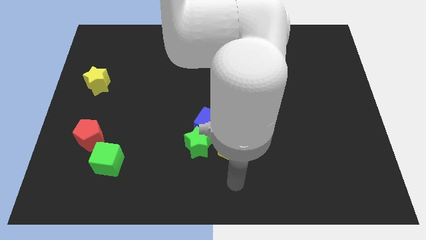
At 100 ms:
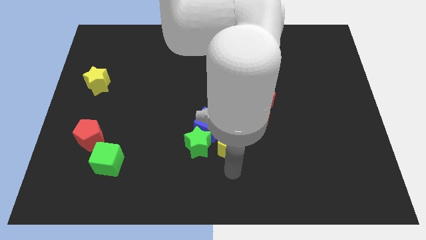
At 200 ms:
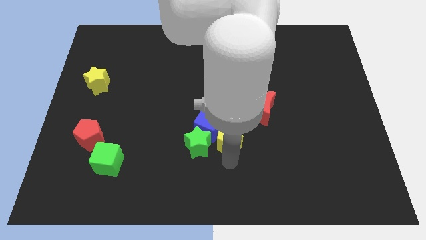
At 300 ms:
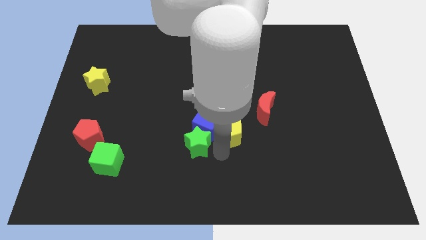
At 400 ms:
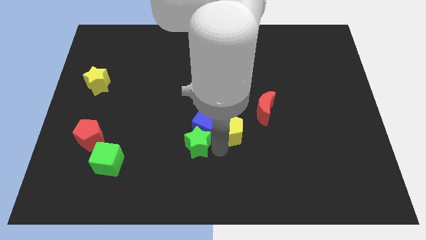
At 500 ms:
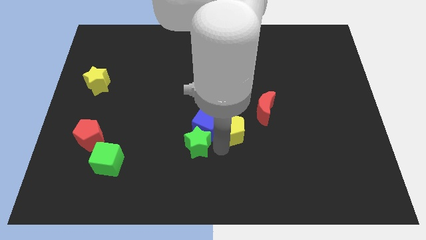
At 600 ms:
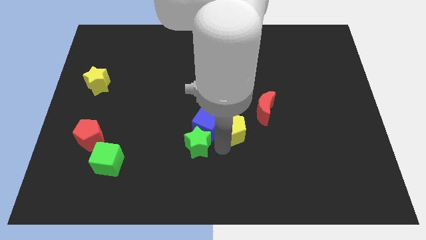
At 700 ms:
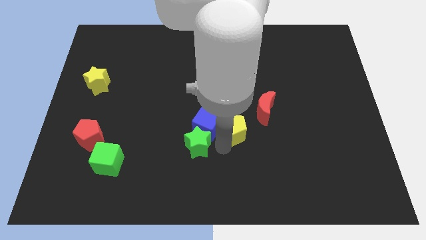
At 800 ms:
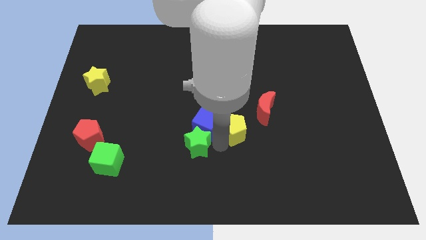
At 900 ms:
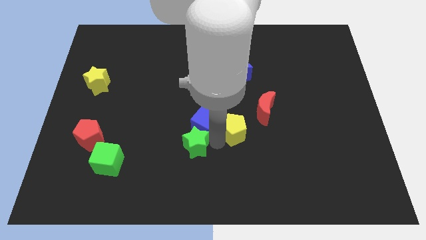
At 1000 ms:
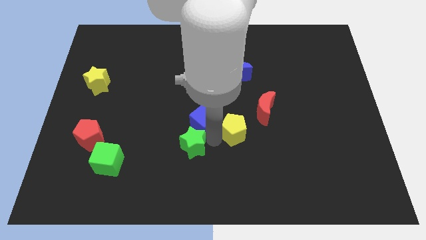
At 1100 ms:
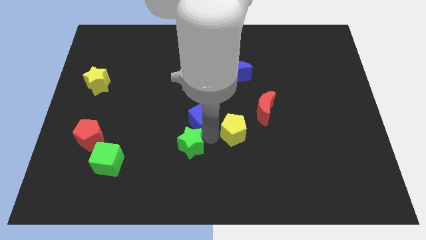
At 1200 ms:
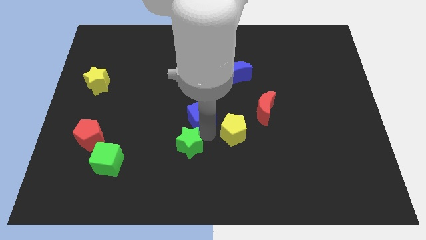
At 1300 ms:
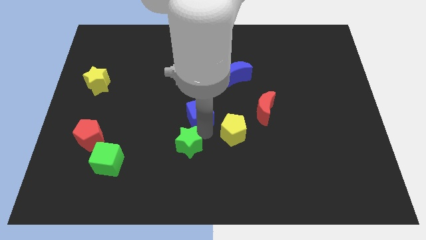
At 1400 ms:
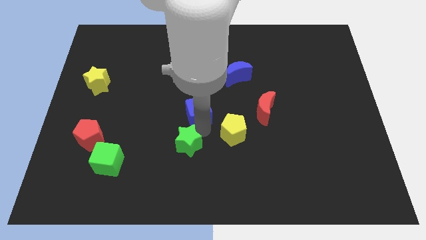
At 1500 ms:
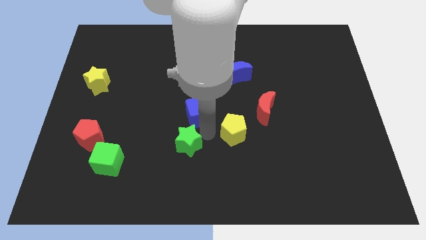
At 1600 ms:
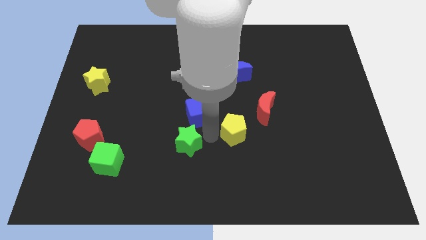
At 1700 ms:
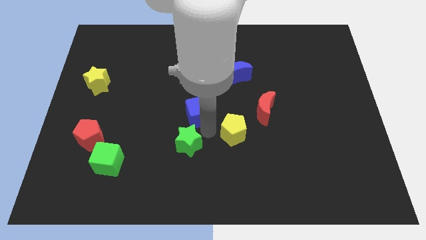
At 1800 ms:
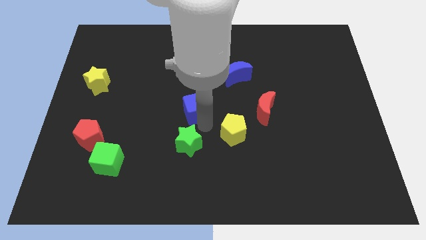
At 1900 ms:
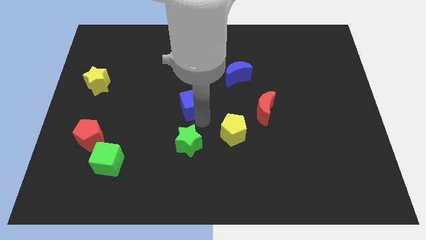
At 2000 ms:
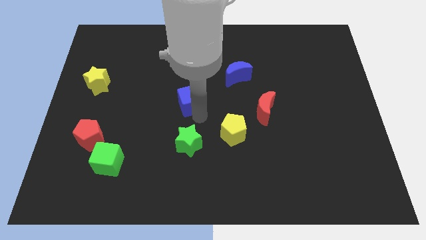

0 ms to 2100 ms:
separate the blue cube from the green star and yellow pentagon

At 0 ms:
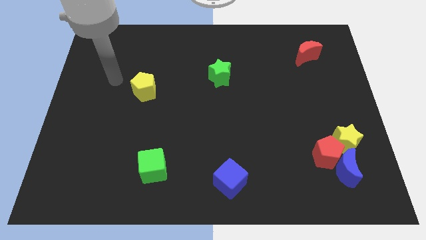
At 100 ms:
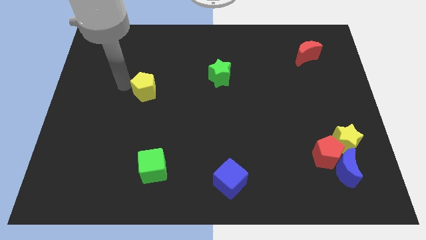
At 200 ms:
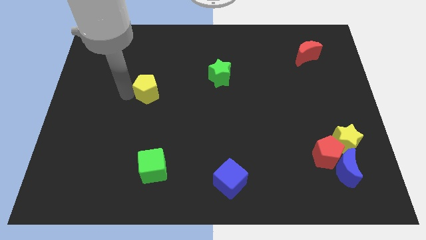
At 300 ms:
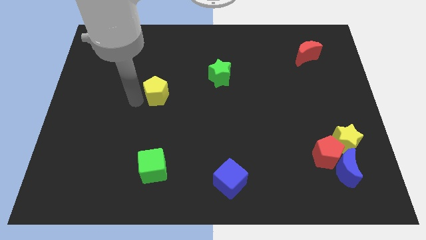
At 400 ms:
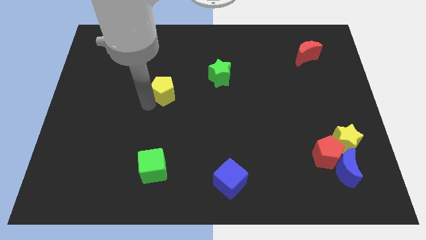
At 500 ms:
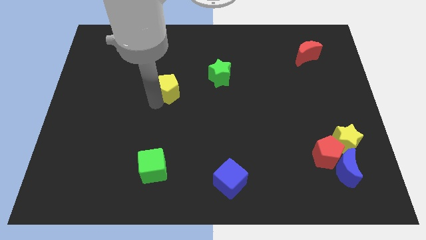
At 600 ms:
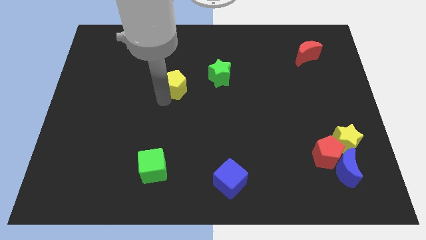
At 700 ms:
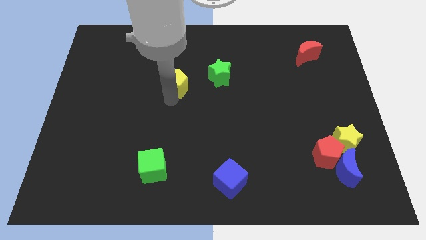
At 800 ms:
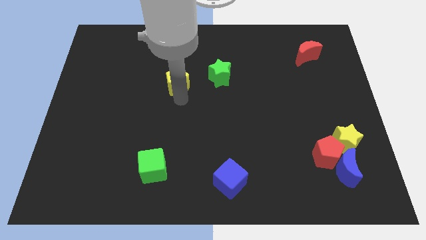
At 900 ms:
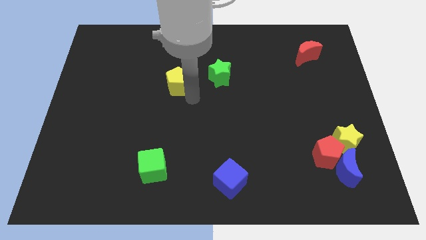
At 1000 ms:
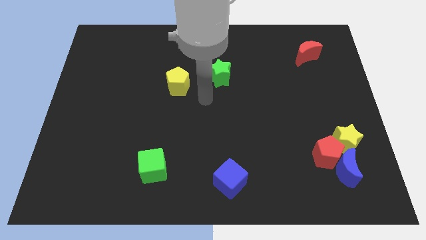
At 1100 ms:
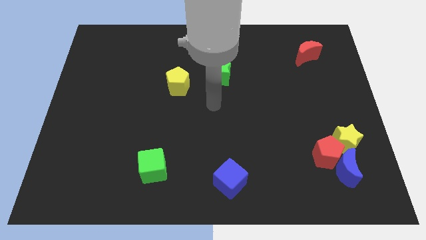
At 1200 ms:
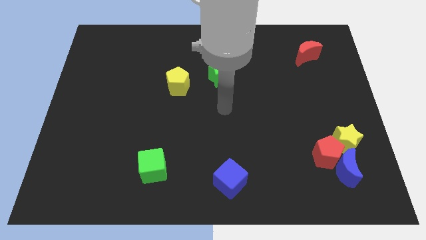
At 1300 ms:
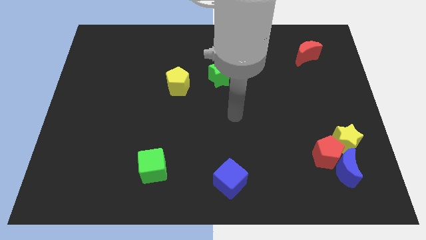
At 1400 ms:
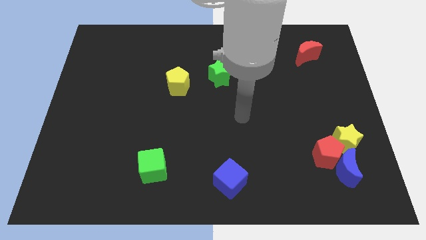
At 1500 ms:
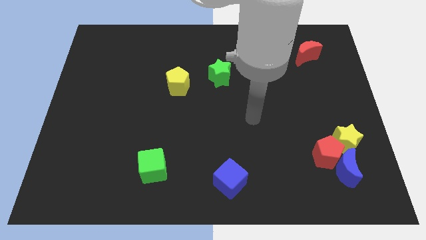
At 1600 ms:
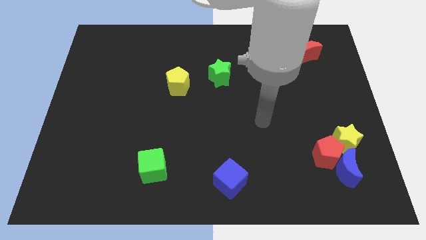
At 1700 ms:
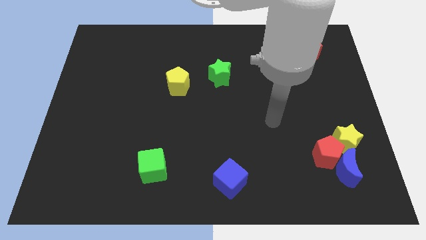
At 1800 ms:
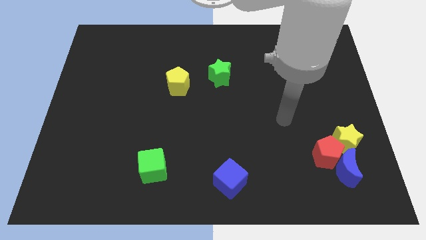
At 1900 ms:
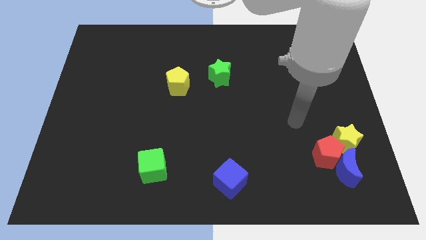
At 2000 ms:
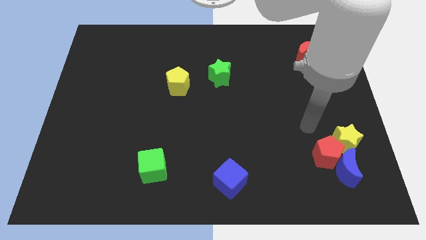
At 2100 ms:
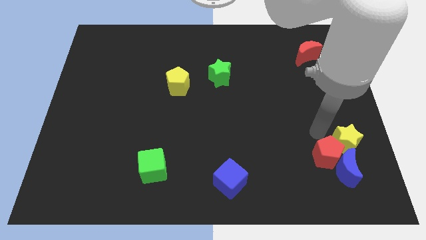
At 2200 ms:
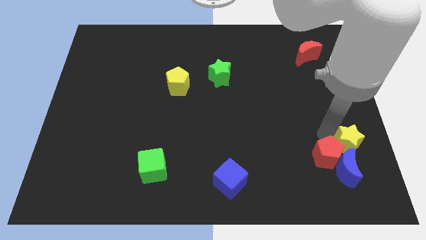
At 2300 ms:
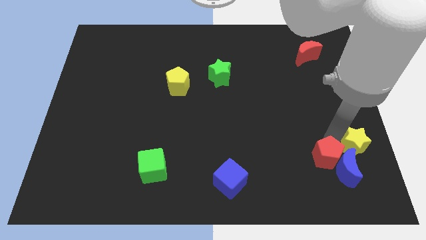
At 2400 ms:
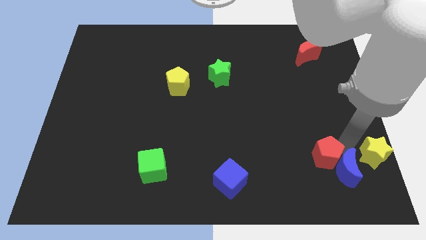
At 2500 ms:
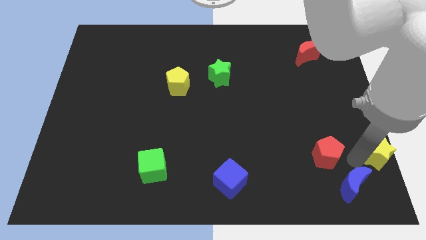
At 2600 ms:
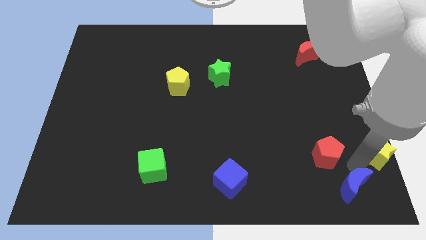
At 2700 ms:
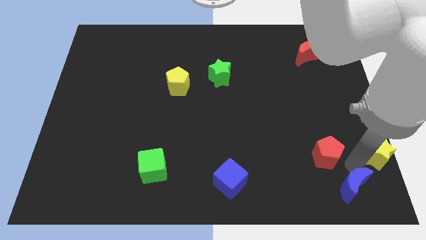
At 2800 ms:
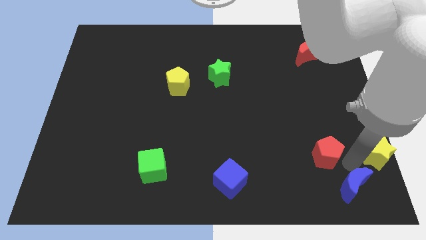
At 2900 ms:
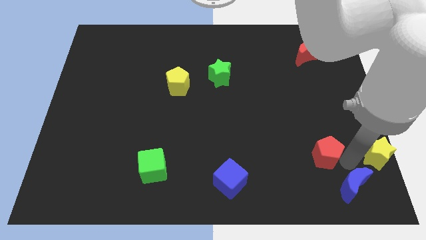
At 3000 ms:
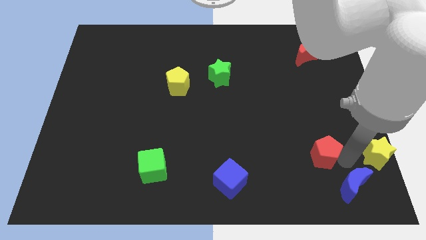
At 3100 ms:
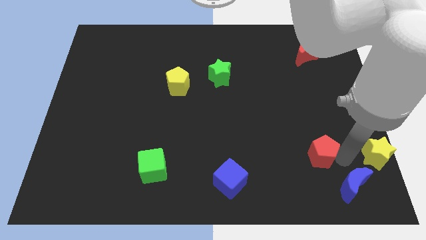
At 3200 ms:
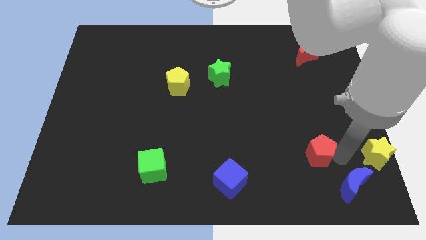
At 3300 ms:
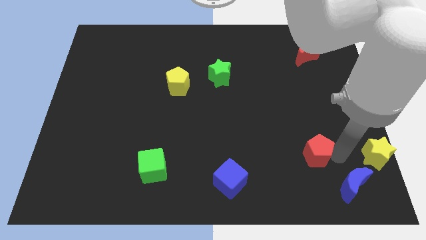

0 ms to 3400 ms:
move the red pentagon away from the blue moon and yellow star

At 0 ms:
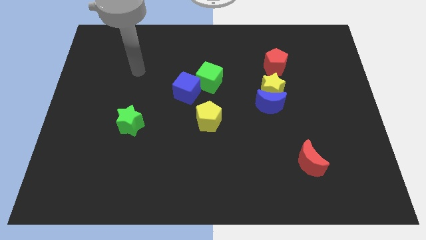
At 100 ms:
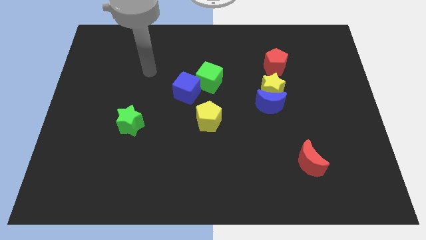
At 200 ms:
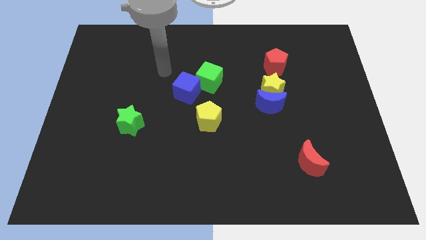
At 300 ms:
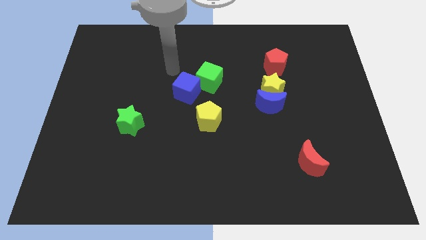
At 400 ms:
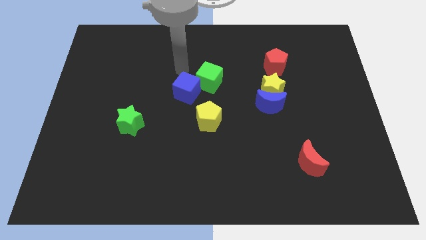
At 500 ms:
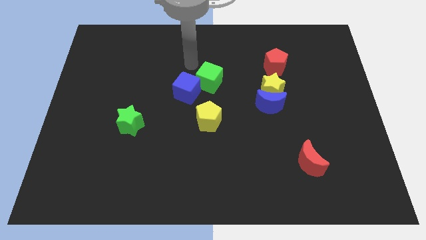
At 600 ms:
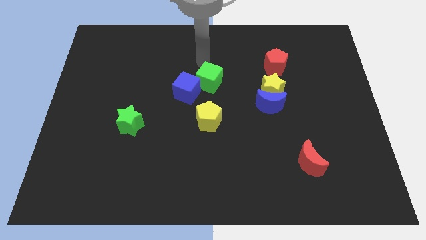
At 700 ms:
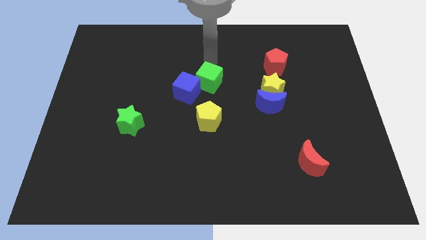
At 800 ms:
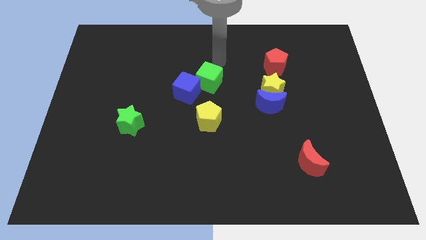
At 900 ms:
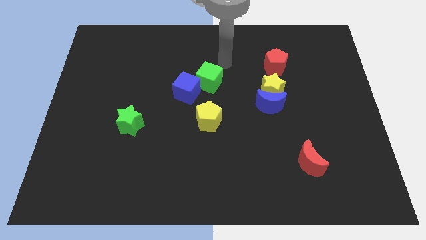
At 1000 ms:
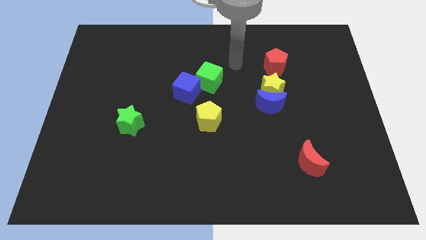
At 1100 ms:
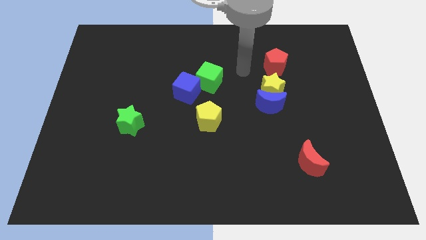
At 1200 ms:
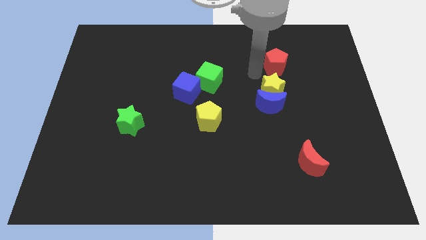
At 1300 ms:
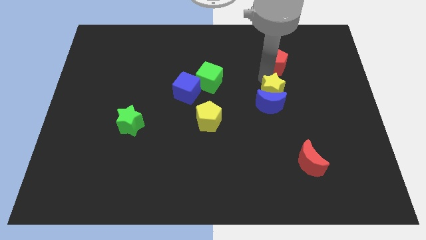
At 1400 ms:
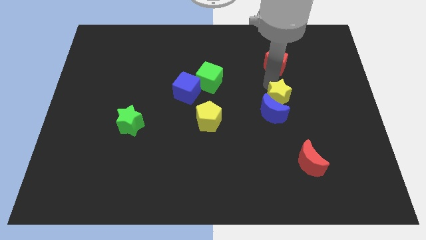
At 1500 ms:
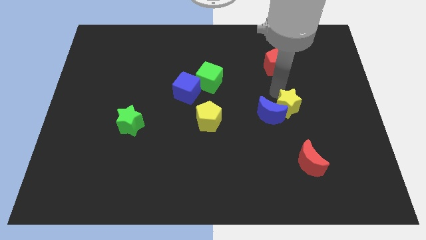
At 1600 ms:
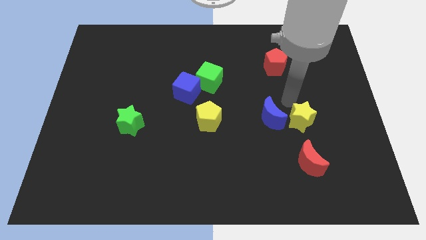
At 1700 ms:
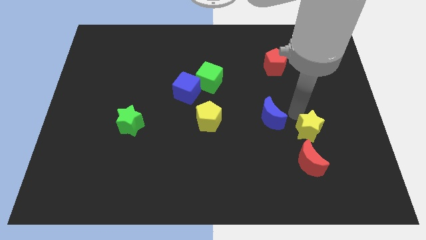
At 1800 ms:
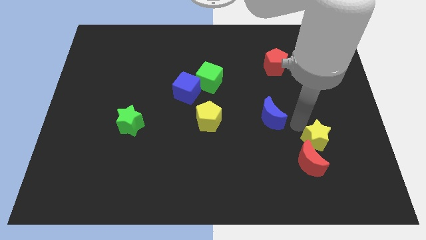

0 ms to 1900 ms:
move the blue moon away from the yellow star

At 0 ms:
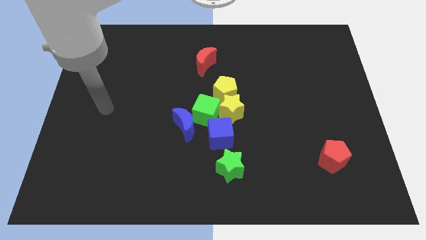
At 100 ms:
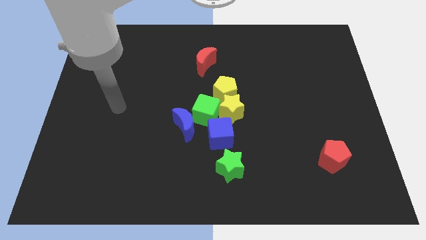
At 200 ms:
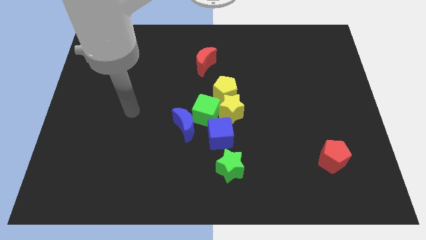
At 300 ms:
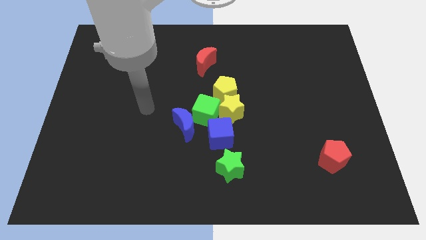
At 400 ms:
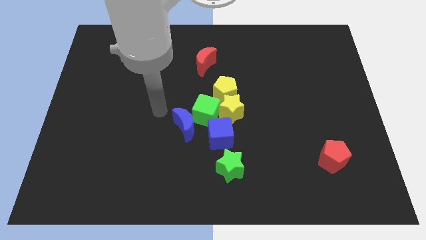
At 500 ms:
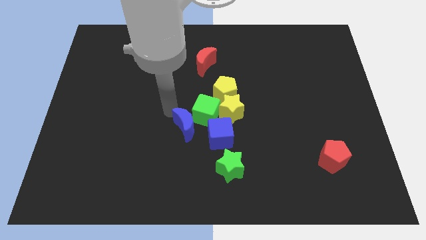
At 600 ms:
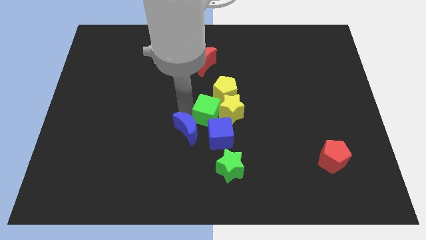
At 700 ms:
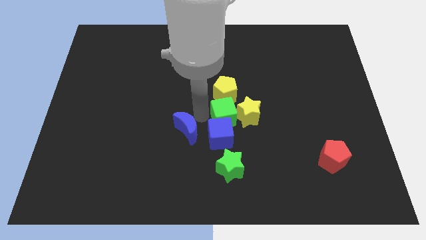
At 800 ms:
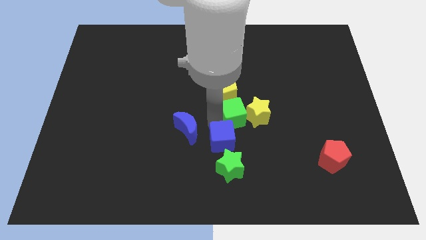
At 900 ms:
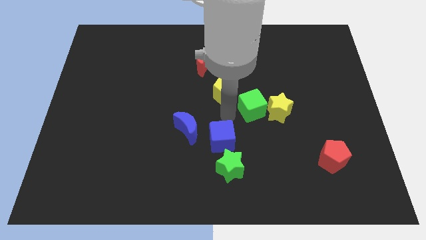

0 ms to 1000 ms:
pull the yellow star apart from the group of blocks

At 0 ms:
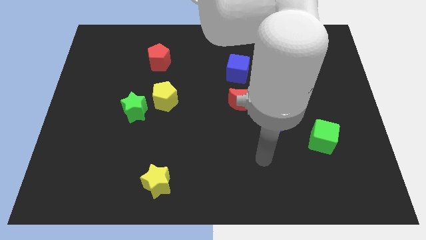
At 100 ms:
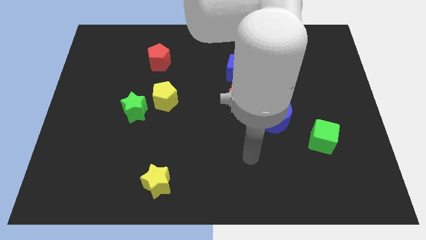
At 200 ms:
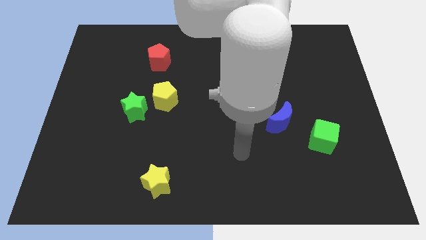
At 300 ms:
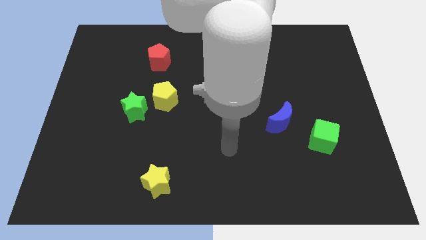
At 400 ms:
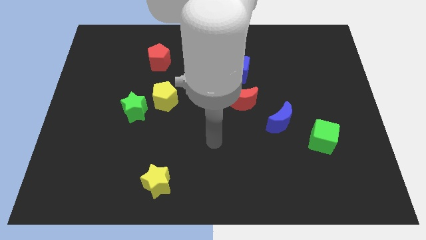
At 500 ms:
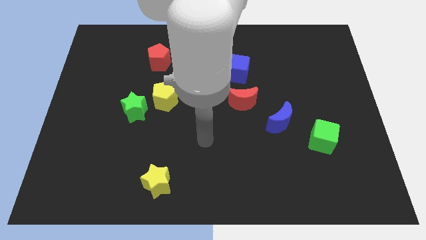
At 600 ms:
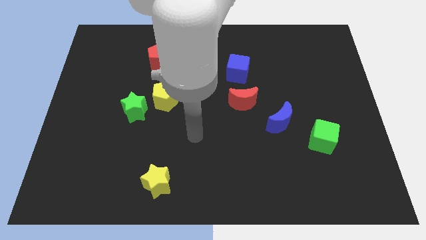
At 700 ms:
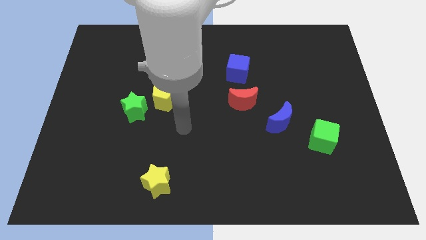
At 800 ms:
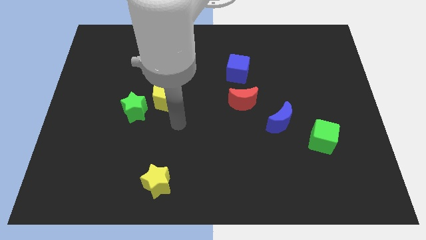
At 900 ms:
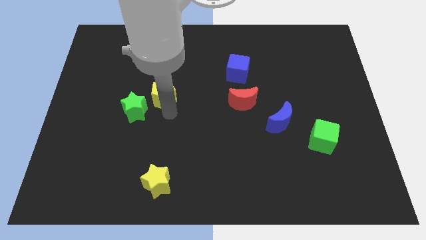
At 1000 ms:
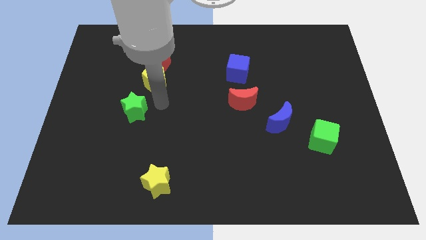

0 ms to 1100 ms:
separate the green star from the yellow pentagon
